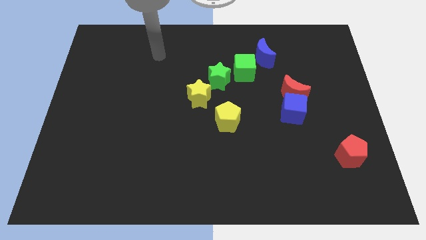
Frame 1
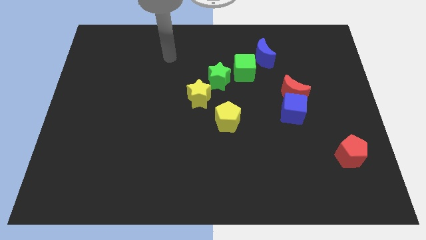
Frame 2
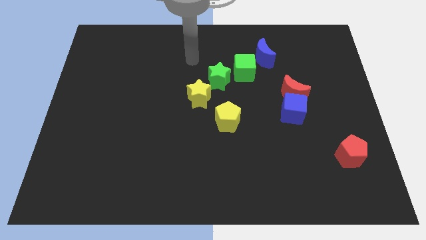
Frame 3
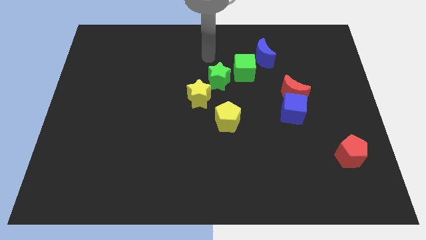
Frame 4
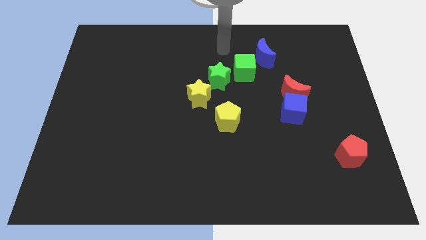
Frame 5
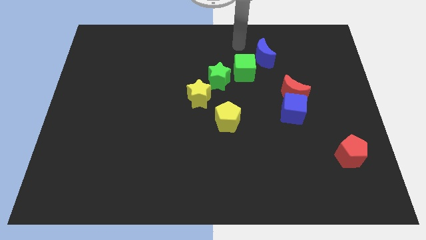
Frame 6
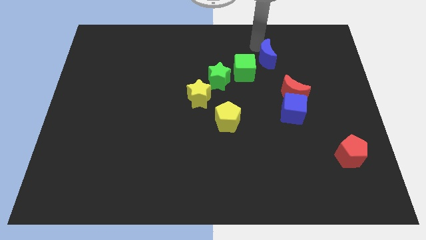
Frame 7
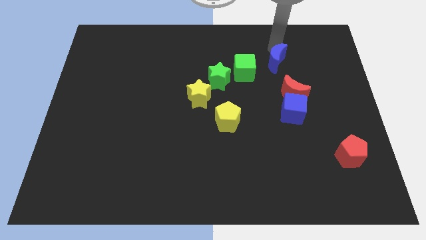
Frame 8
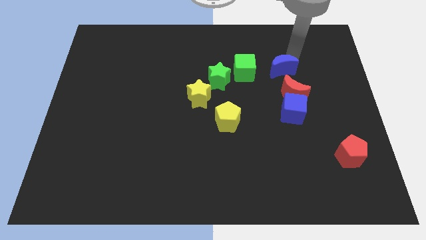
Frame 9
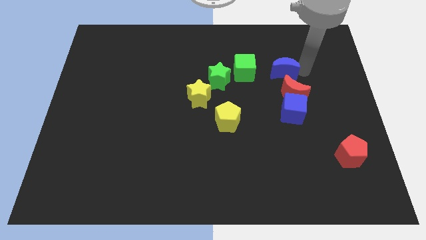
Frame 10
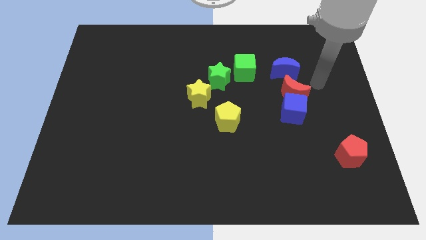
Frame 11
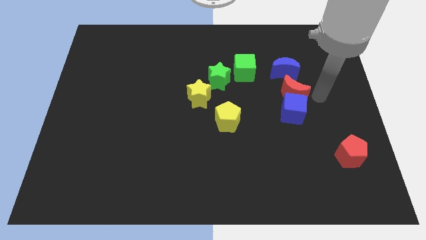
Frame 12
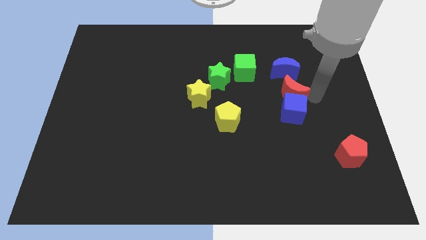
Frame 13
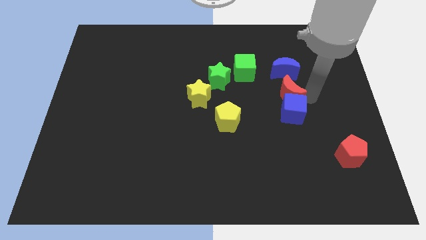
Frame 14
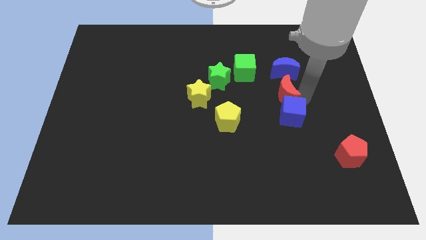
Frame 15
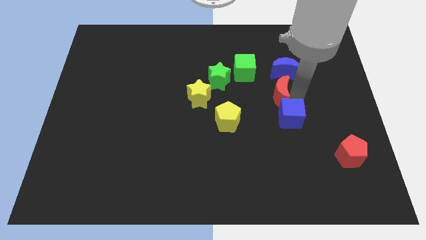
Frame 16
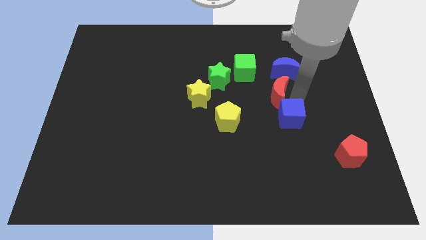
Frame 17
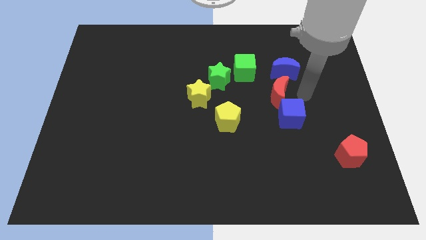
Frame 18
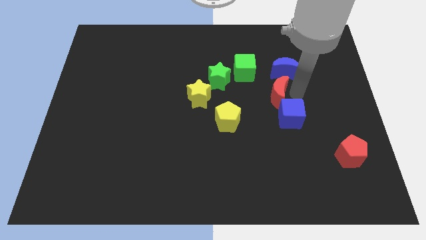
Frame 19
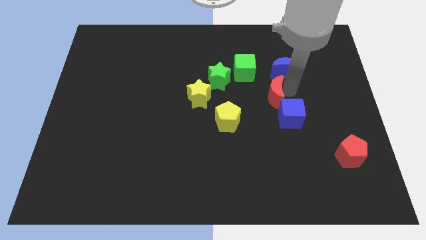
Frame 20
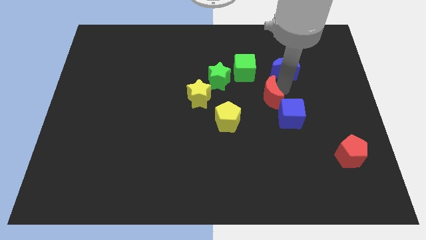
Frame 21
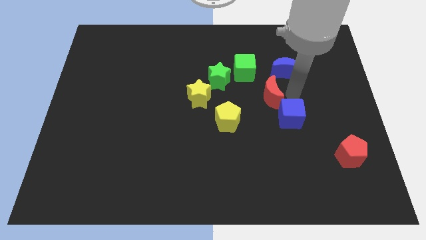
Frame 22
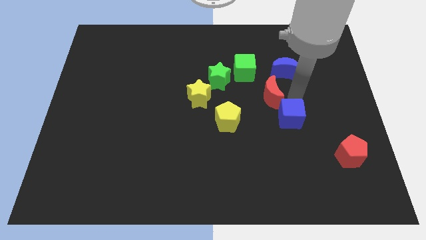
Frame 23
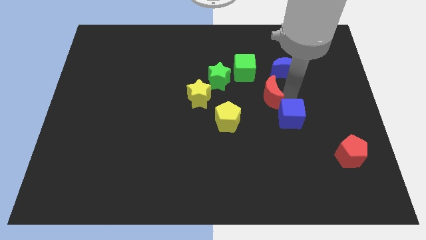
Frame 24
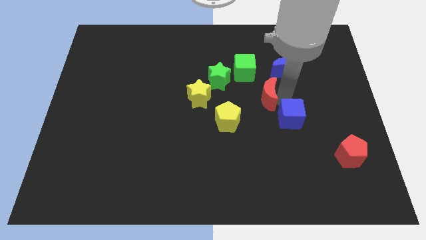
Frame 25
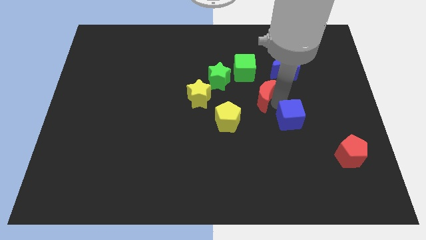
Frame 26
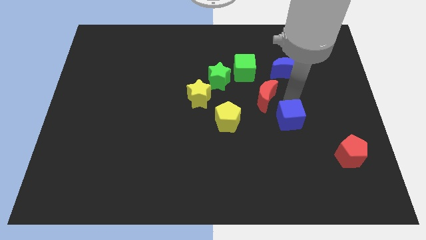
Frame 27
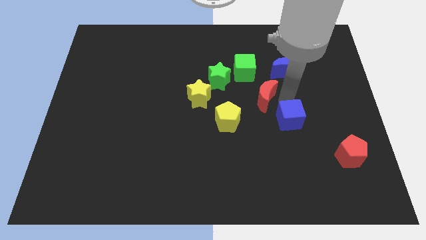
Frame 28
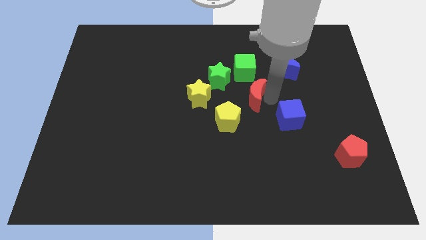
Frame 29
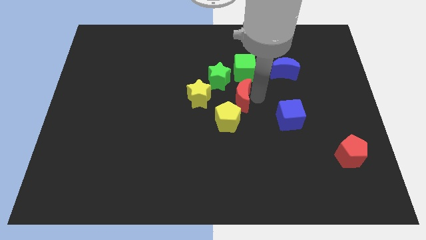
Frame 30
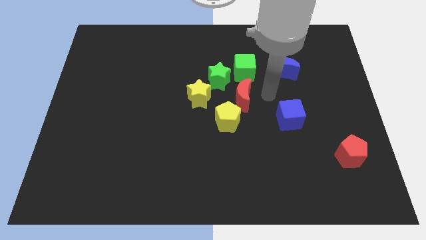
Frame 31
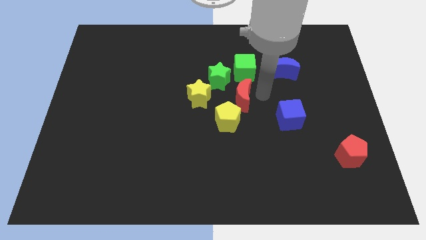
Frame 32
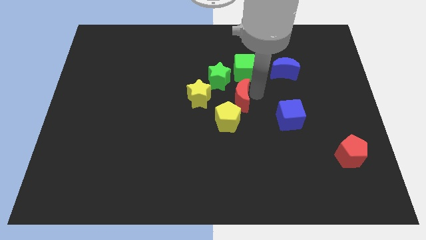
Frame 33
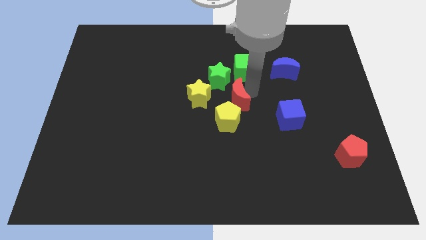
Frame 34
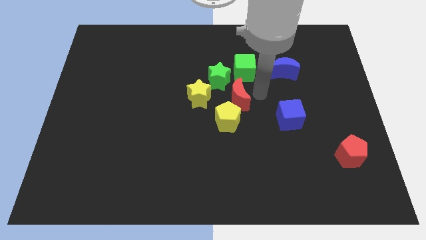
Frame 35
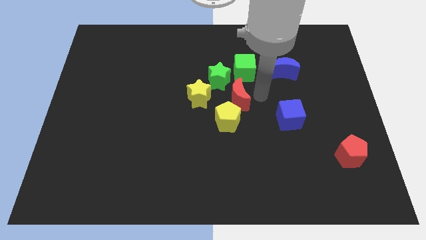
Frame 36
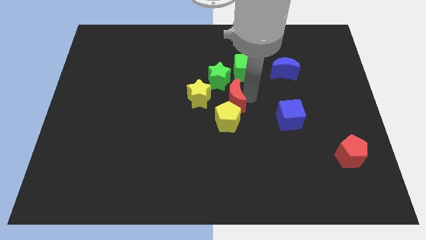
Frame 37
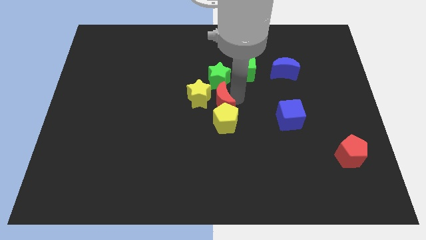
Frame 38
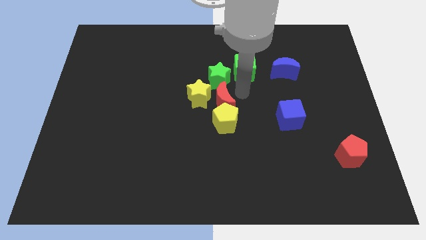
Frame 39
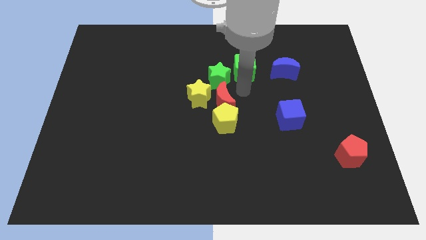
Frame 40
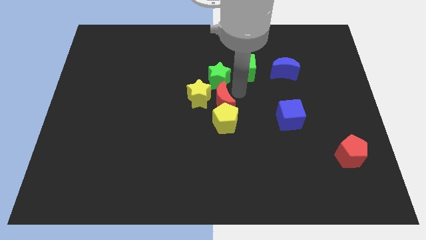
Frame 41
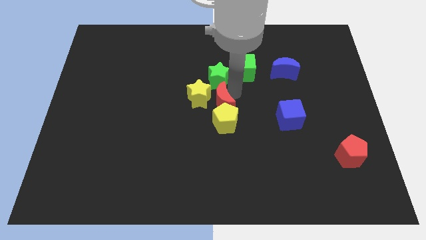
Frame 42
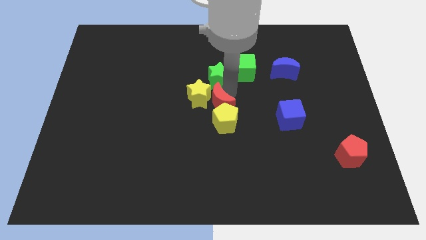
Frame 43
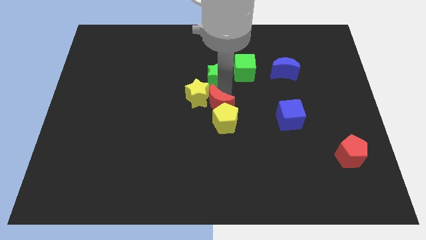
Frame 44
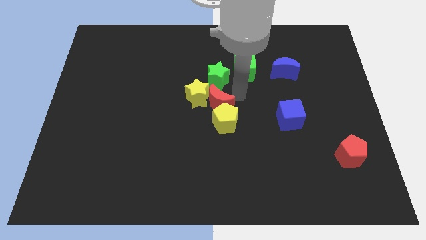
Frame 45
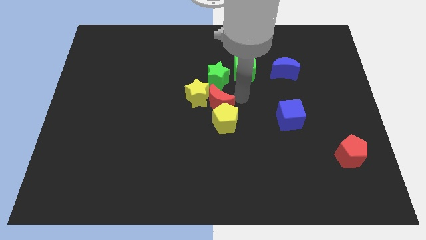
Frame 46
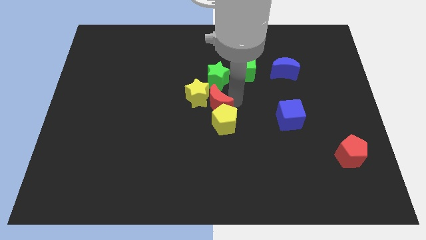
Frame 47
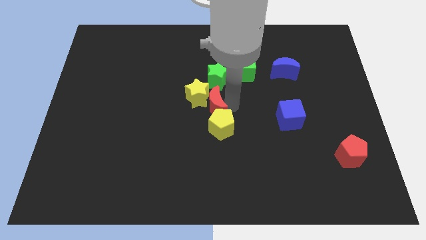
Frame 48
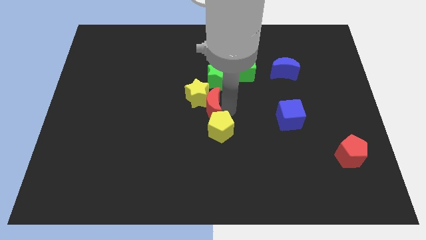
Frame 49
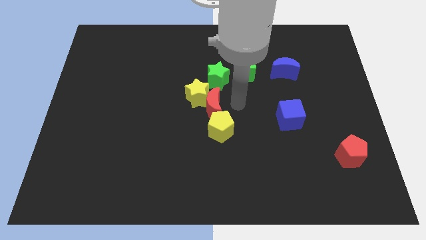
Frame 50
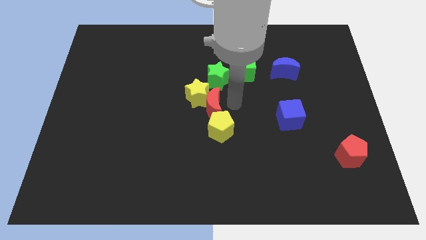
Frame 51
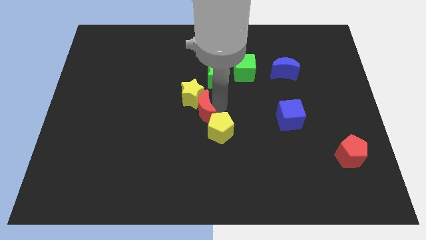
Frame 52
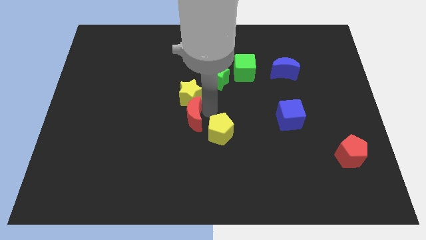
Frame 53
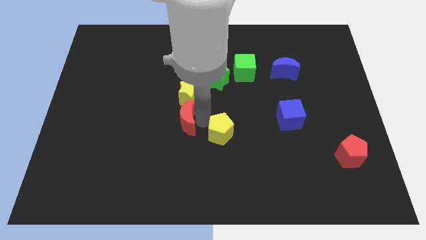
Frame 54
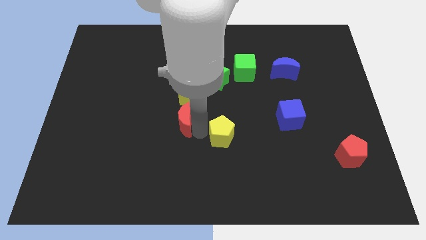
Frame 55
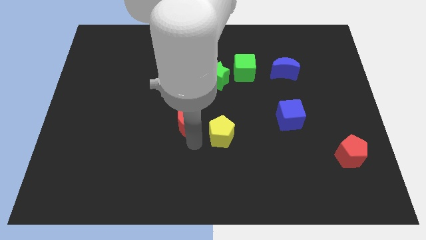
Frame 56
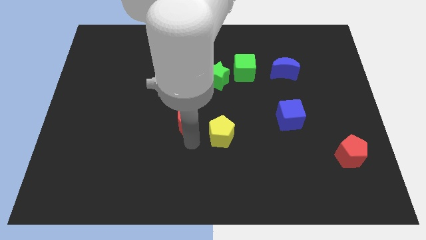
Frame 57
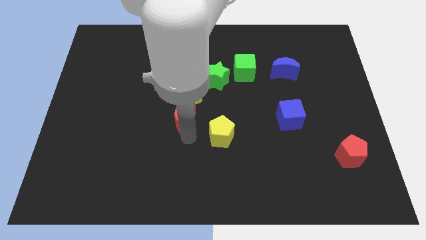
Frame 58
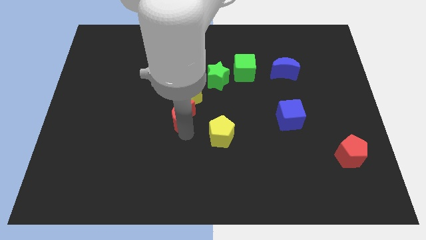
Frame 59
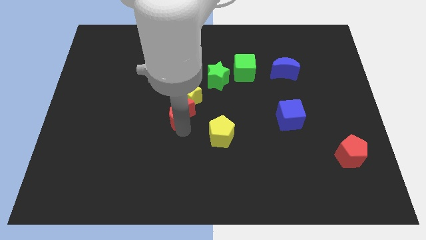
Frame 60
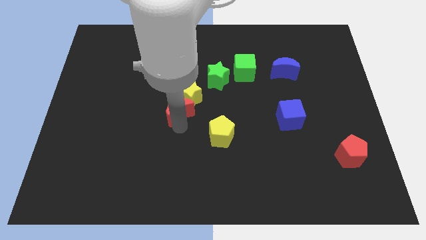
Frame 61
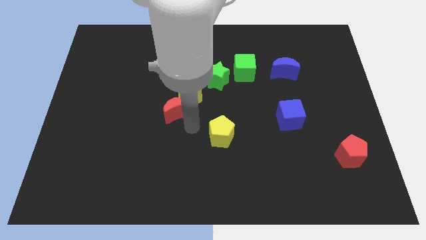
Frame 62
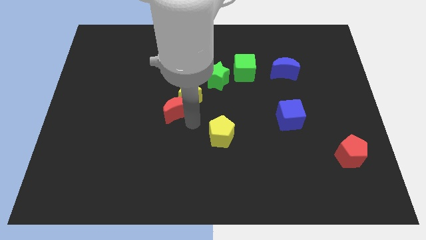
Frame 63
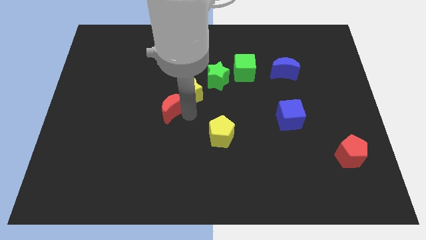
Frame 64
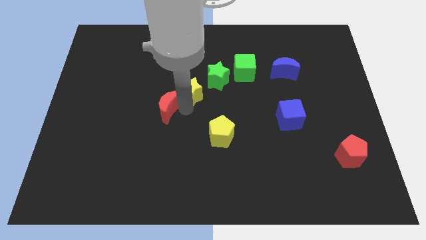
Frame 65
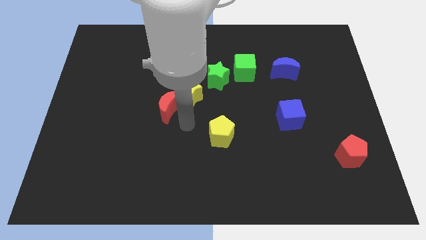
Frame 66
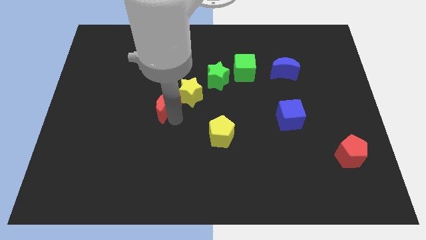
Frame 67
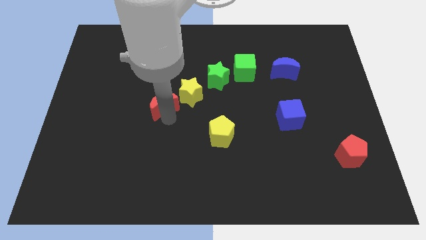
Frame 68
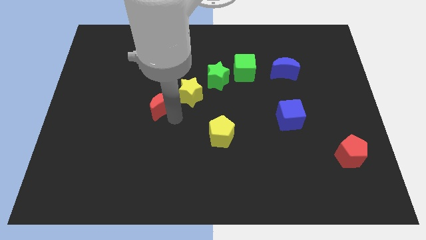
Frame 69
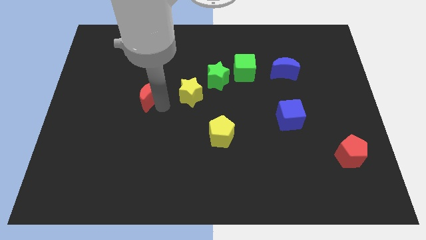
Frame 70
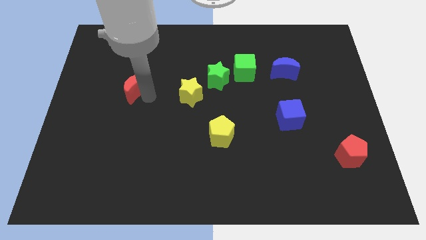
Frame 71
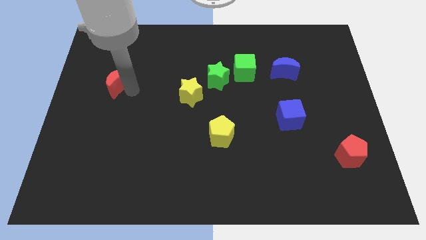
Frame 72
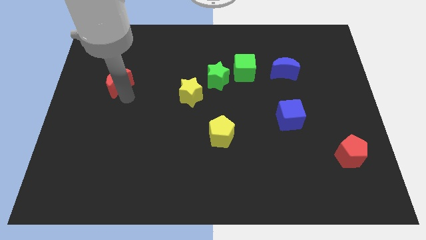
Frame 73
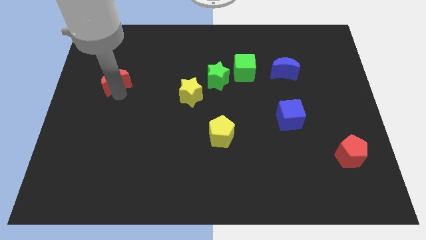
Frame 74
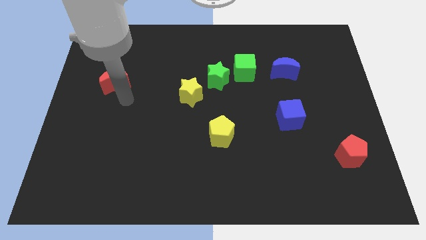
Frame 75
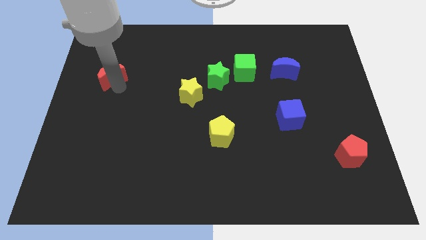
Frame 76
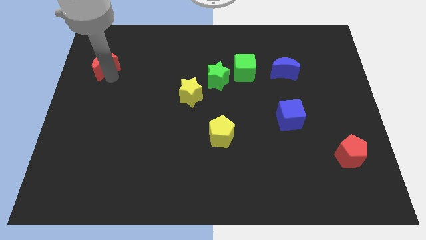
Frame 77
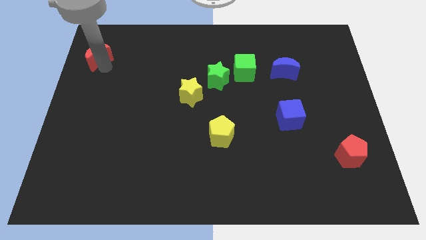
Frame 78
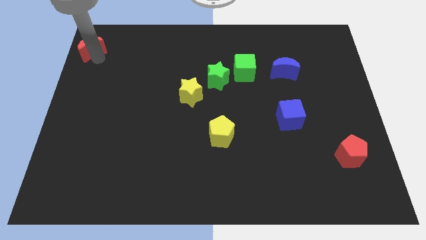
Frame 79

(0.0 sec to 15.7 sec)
move the red moon to the top left corner
